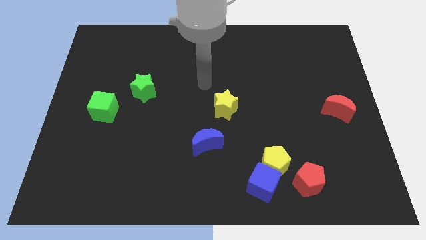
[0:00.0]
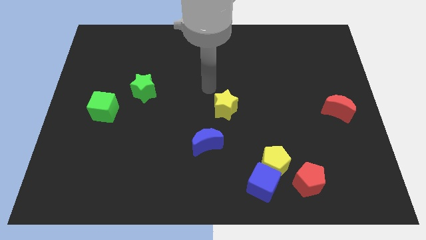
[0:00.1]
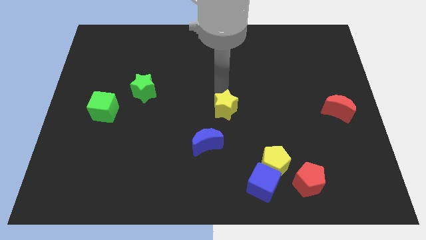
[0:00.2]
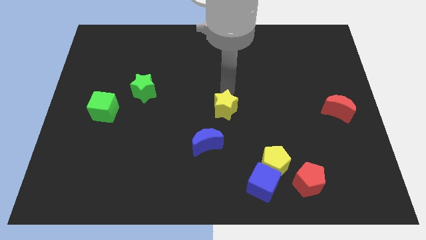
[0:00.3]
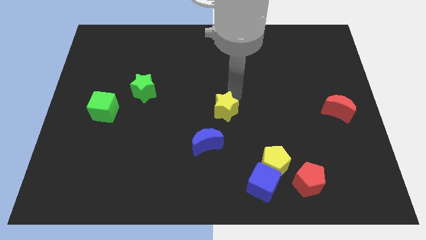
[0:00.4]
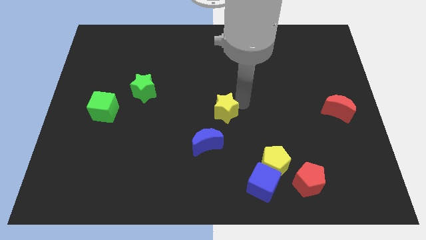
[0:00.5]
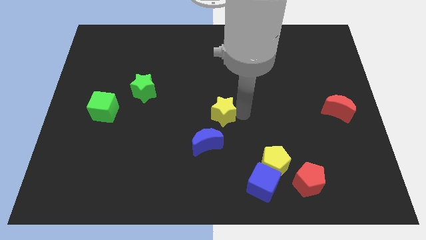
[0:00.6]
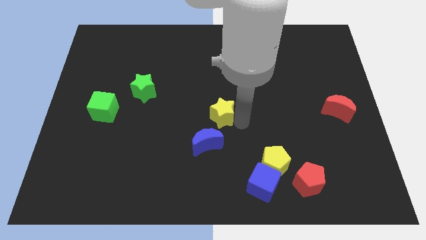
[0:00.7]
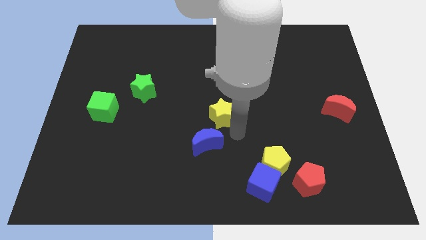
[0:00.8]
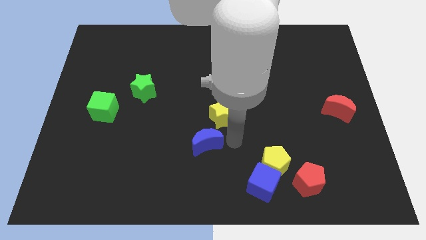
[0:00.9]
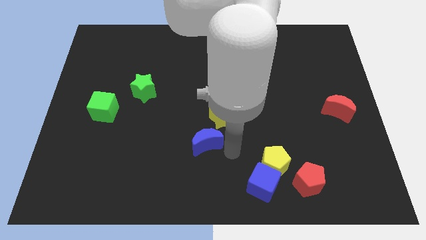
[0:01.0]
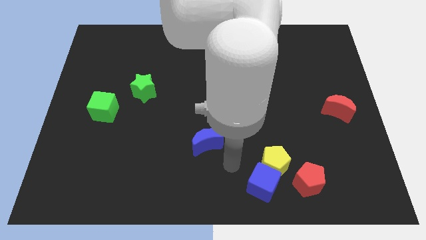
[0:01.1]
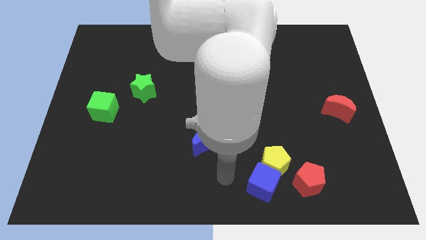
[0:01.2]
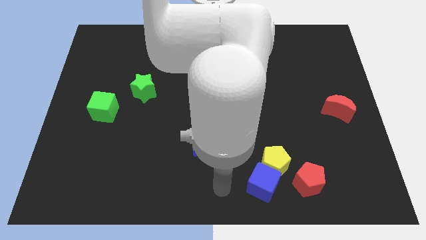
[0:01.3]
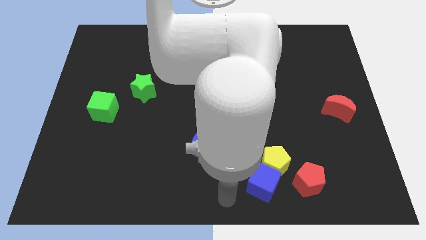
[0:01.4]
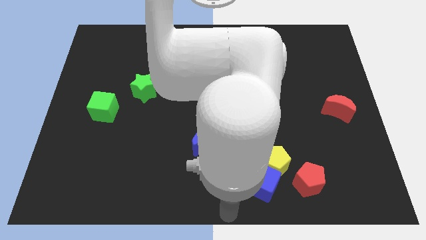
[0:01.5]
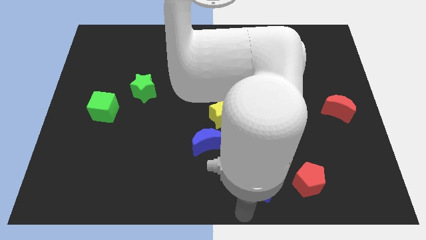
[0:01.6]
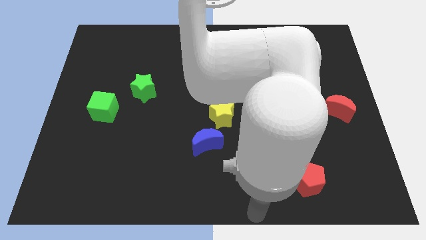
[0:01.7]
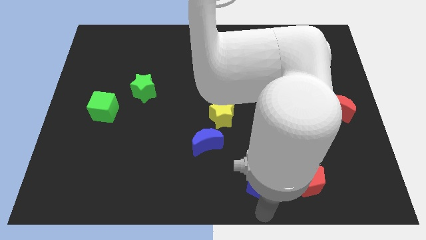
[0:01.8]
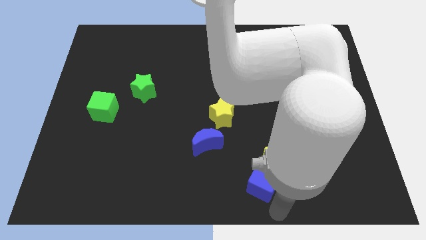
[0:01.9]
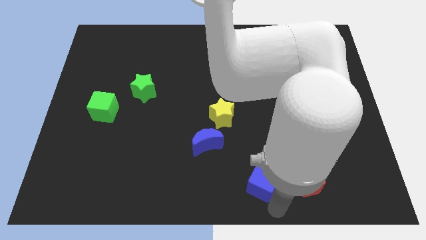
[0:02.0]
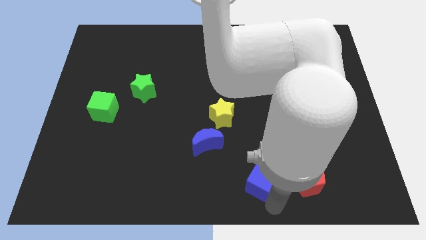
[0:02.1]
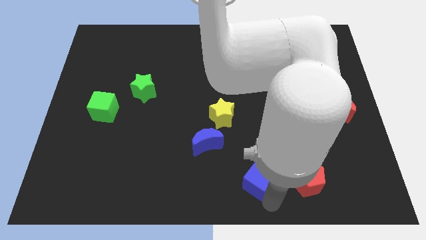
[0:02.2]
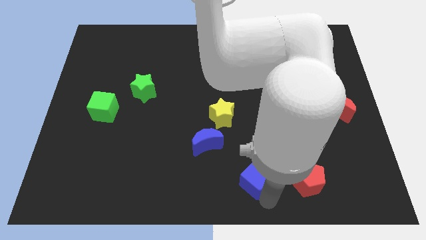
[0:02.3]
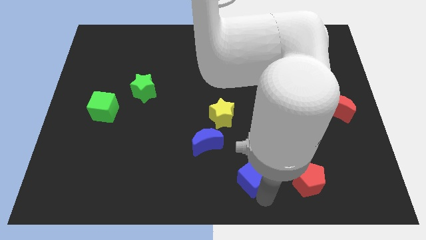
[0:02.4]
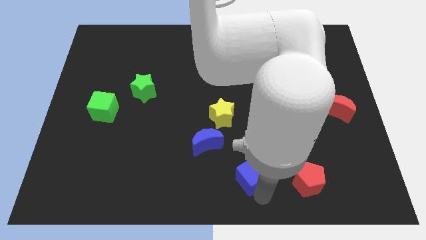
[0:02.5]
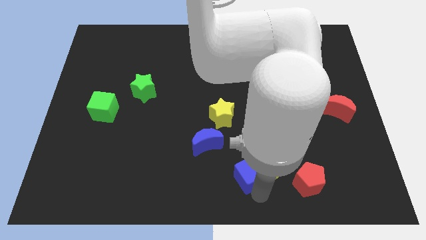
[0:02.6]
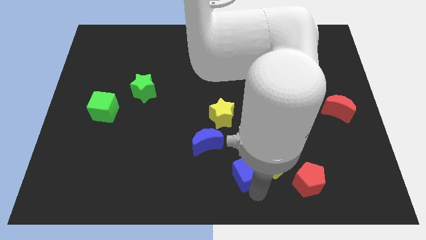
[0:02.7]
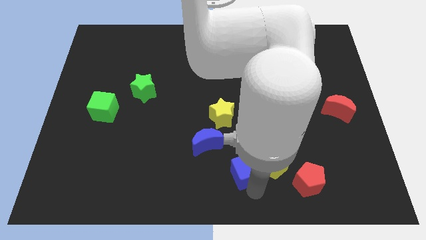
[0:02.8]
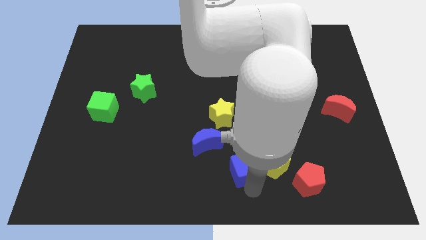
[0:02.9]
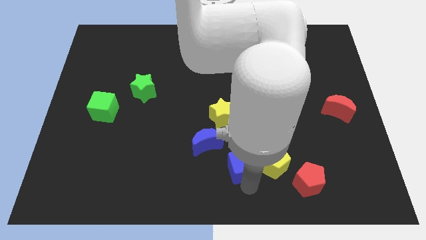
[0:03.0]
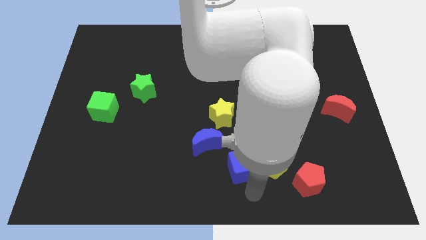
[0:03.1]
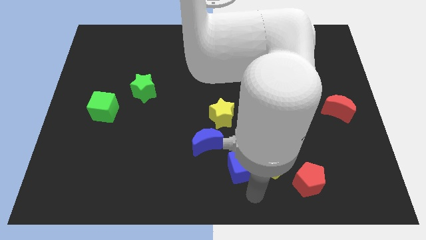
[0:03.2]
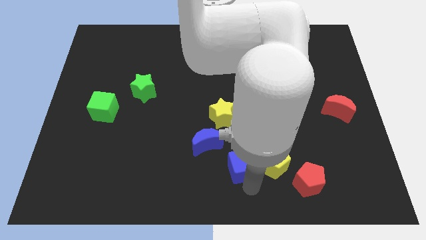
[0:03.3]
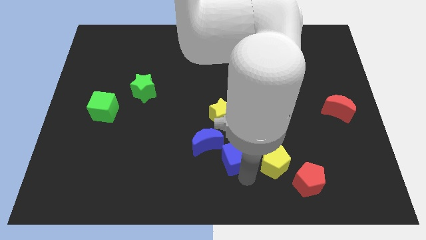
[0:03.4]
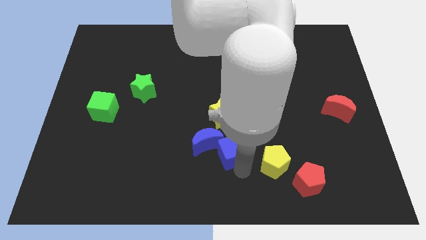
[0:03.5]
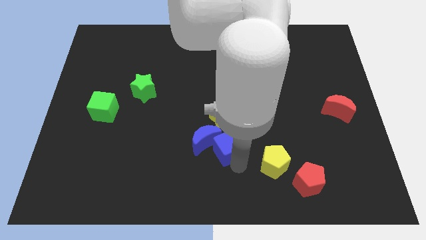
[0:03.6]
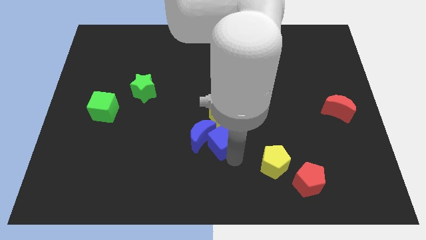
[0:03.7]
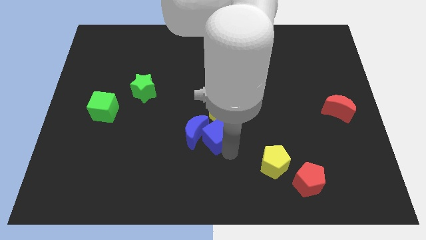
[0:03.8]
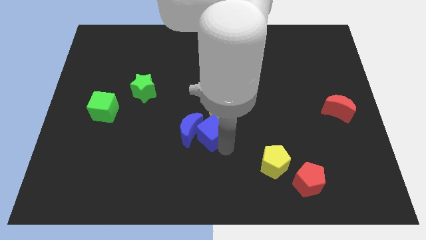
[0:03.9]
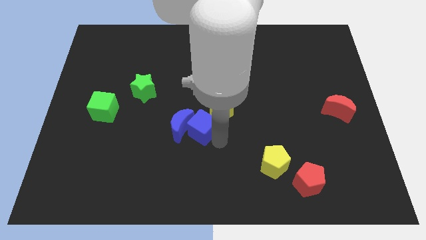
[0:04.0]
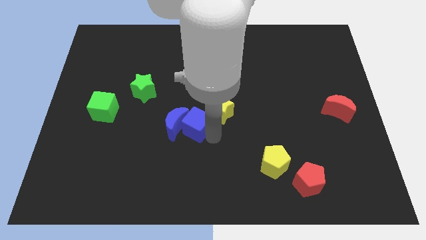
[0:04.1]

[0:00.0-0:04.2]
push the blue cube up and left diagonally

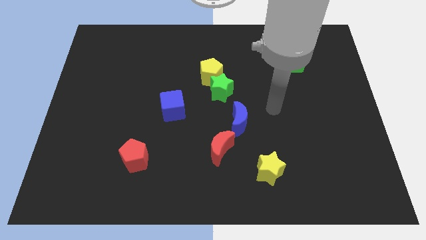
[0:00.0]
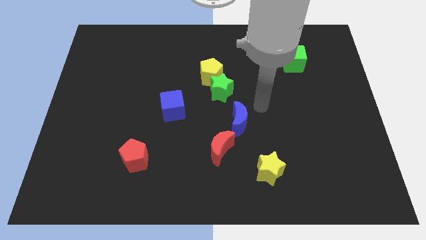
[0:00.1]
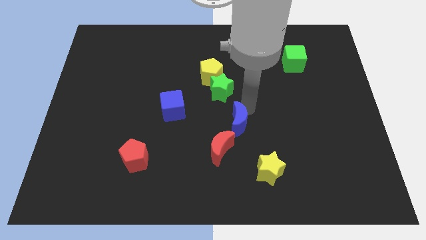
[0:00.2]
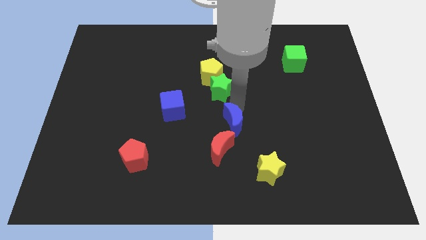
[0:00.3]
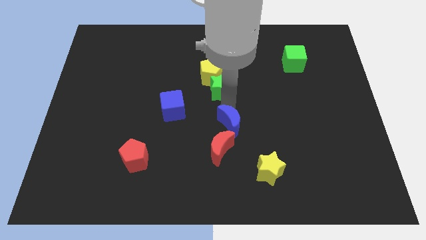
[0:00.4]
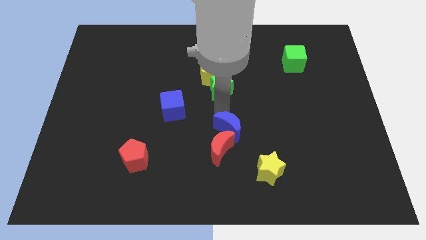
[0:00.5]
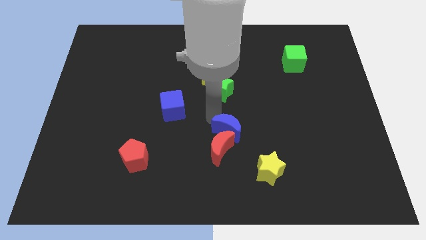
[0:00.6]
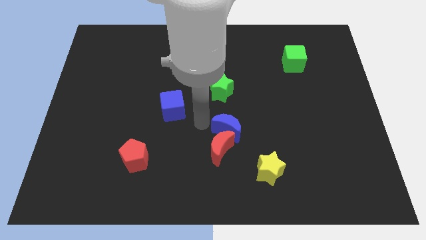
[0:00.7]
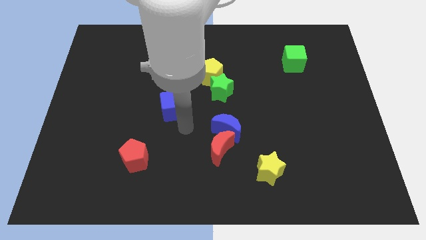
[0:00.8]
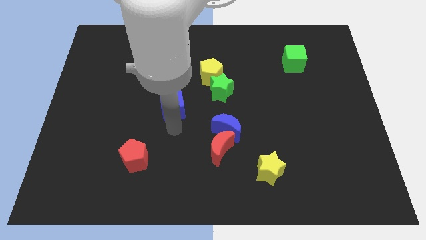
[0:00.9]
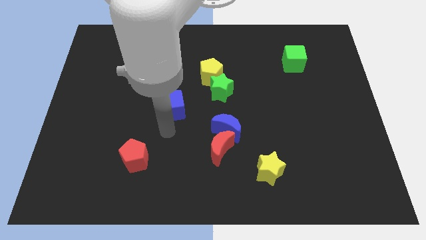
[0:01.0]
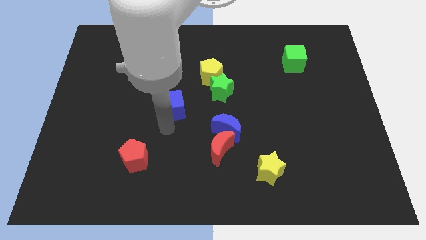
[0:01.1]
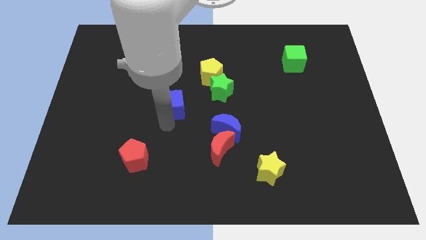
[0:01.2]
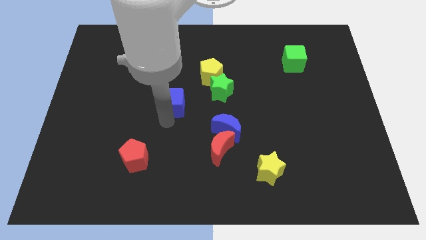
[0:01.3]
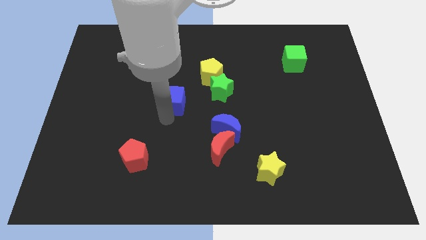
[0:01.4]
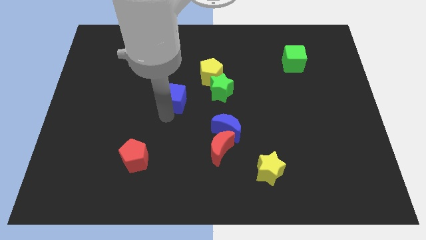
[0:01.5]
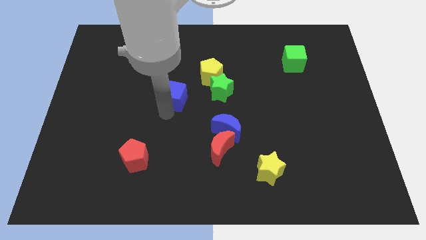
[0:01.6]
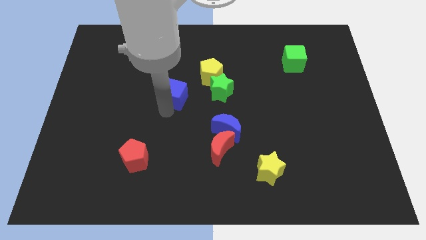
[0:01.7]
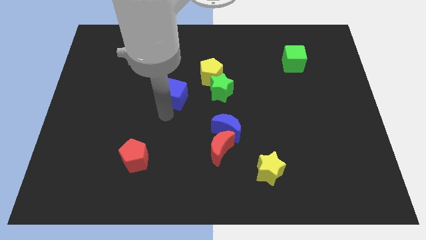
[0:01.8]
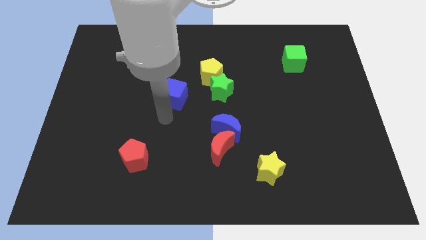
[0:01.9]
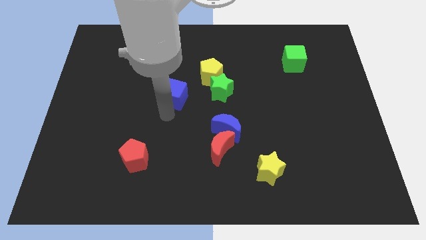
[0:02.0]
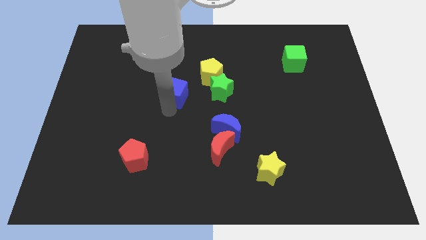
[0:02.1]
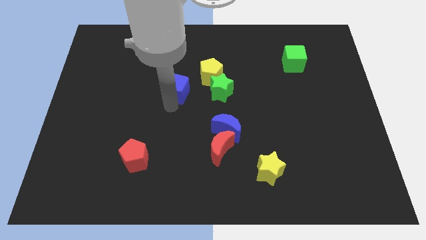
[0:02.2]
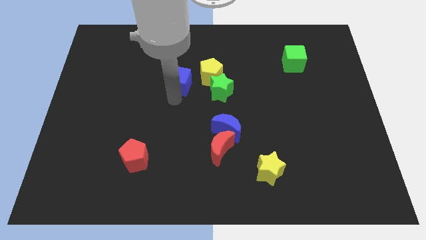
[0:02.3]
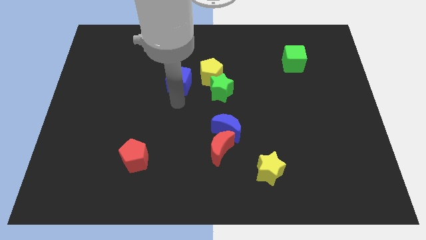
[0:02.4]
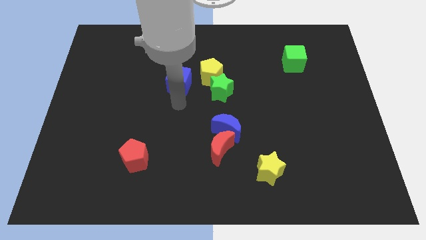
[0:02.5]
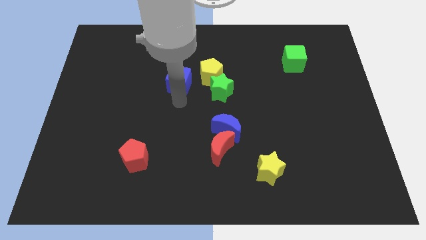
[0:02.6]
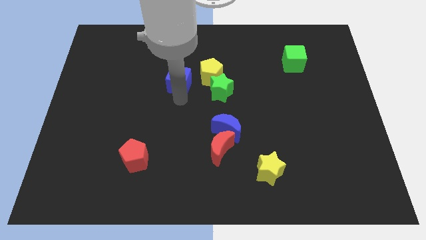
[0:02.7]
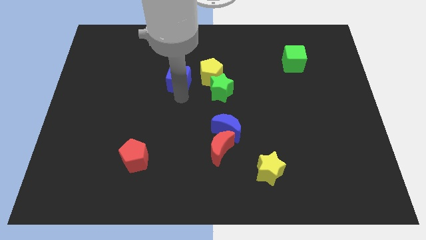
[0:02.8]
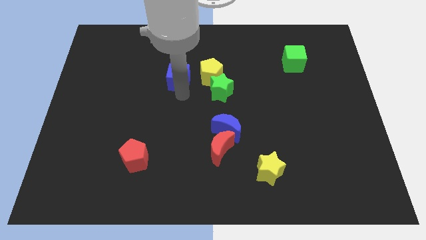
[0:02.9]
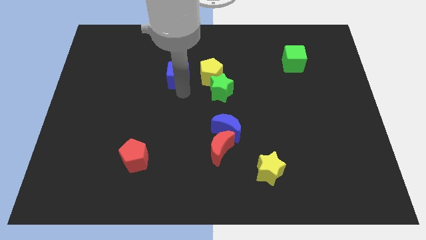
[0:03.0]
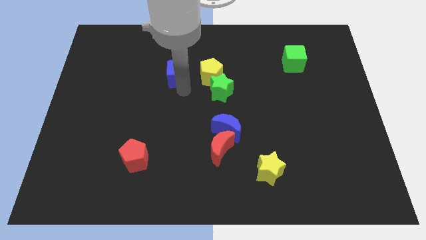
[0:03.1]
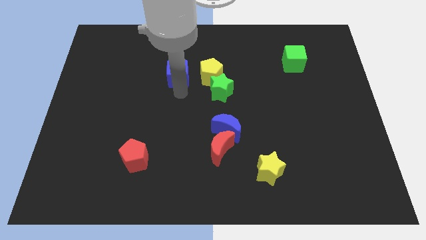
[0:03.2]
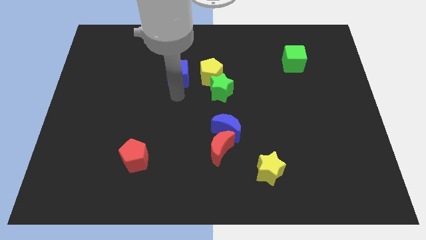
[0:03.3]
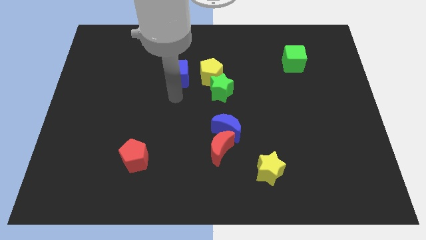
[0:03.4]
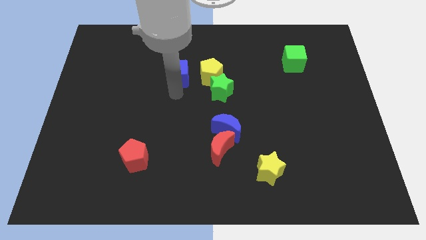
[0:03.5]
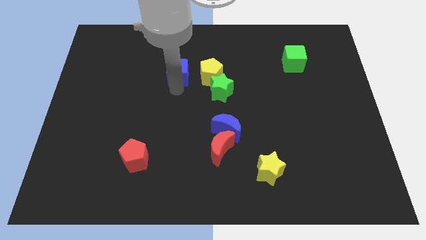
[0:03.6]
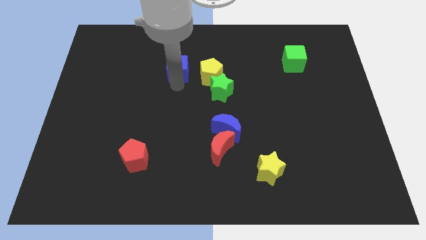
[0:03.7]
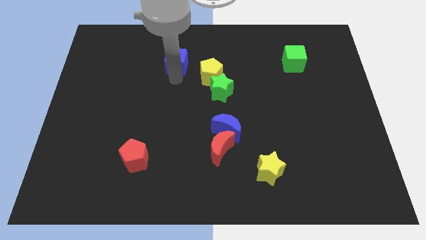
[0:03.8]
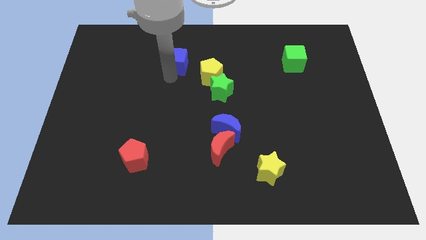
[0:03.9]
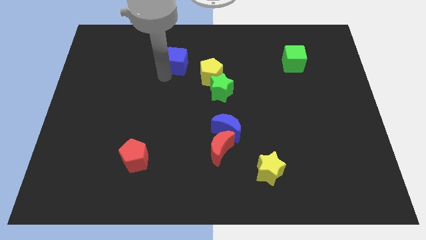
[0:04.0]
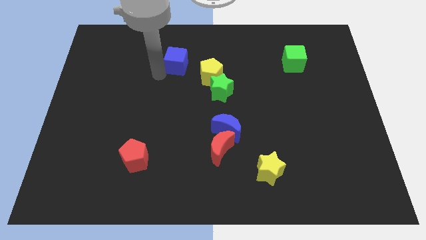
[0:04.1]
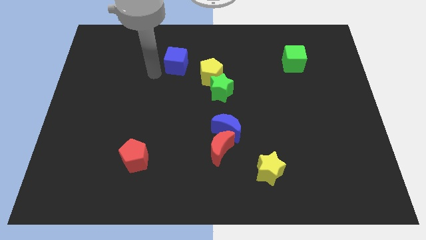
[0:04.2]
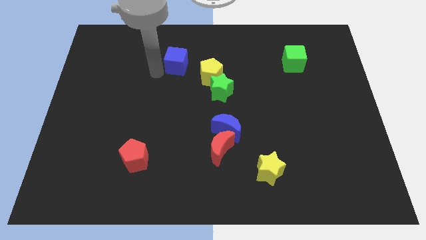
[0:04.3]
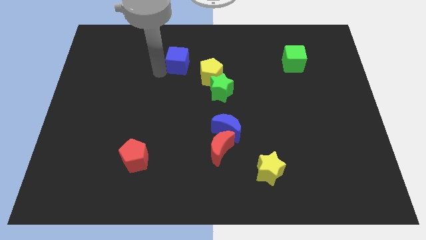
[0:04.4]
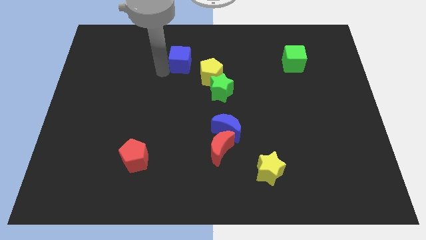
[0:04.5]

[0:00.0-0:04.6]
slightly slide the blue cube up and then right
